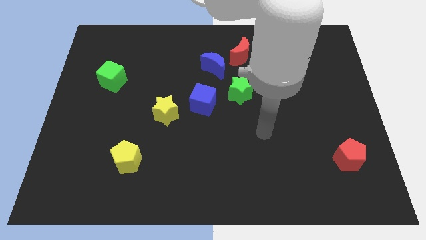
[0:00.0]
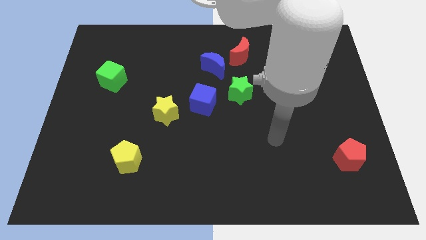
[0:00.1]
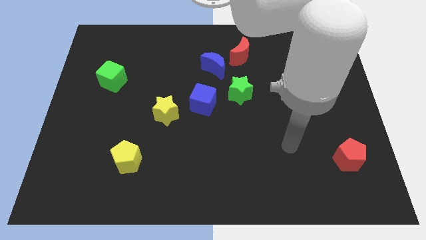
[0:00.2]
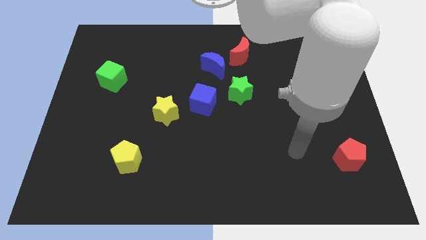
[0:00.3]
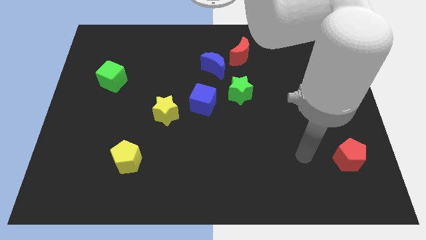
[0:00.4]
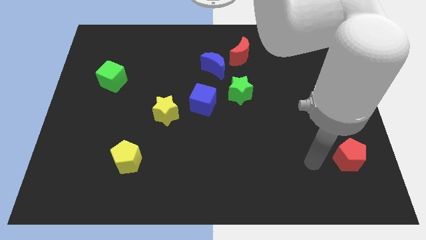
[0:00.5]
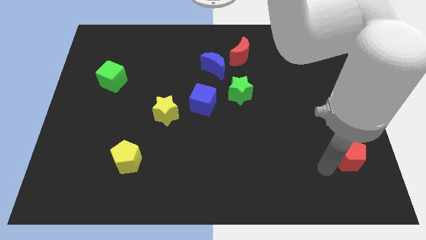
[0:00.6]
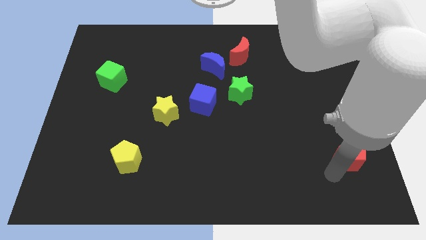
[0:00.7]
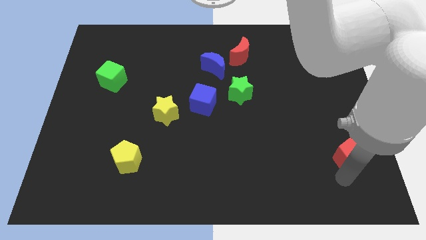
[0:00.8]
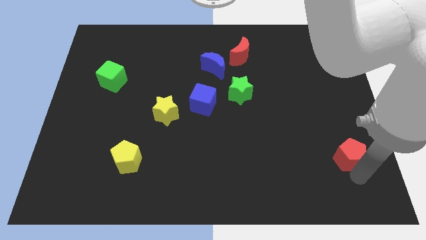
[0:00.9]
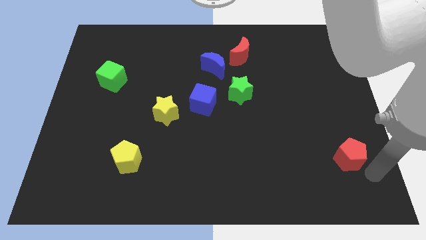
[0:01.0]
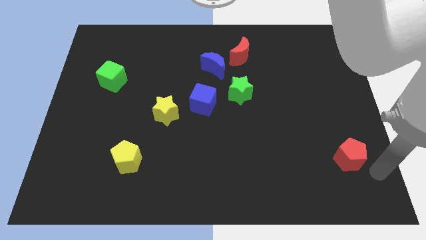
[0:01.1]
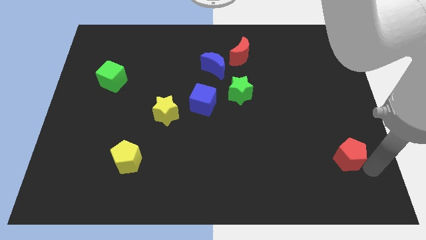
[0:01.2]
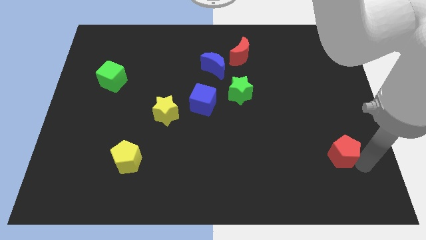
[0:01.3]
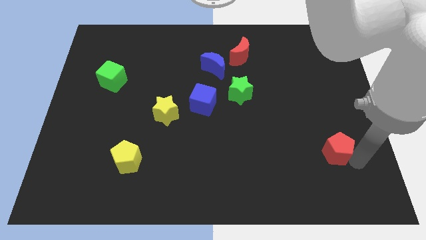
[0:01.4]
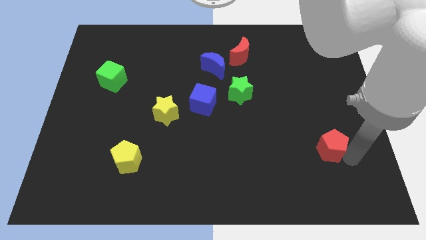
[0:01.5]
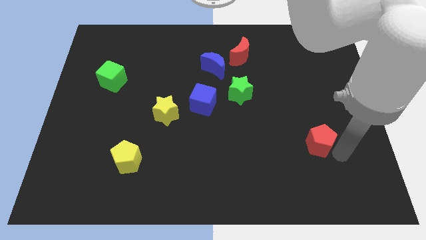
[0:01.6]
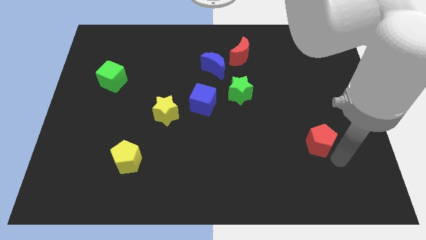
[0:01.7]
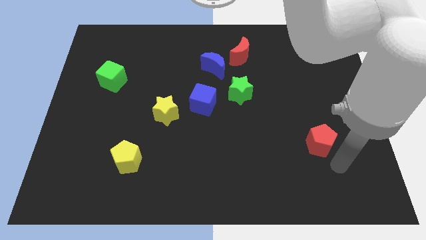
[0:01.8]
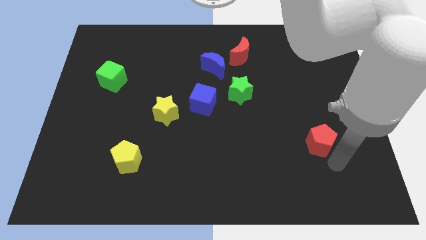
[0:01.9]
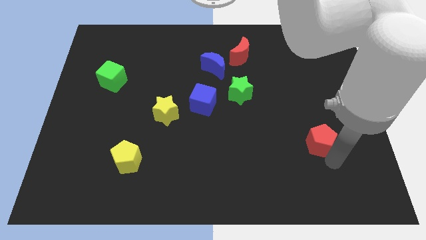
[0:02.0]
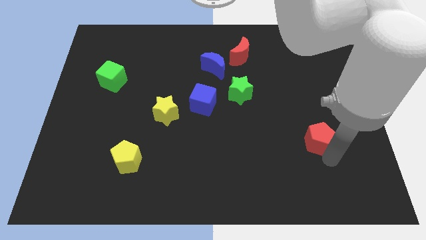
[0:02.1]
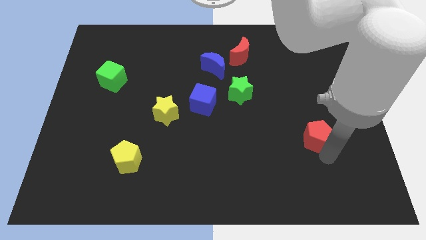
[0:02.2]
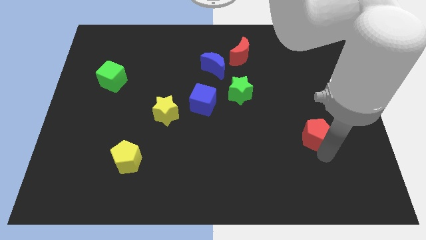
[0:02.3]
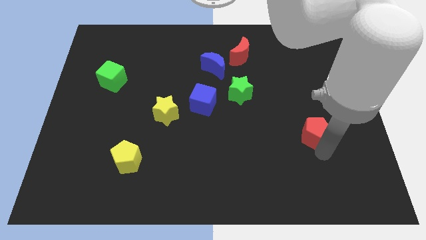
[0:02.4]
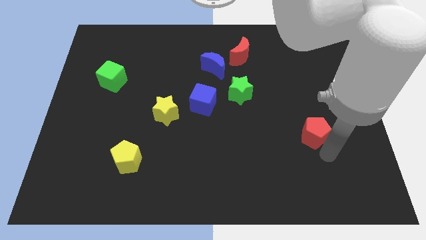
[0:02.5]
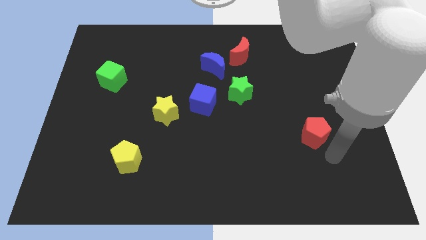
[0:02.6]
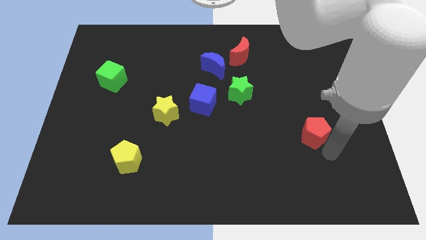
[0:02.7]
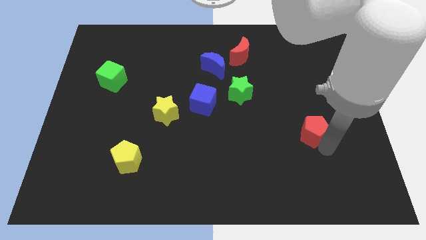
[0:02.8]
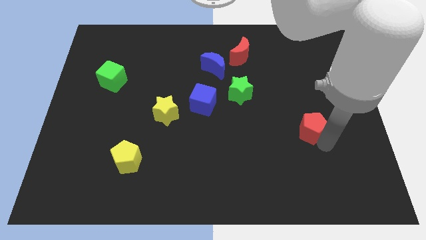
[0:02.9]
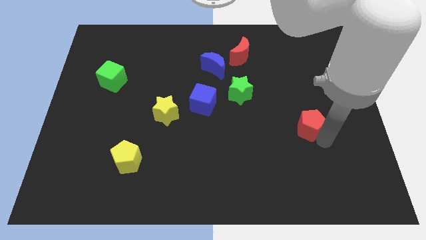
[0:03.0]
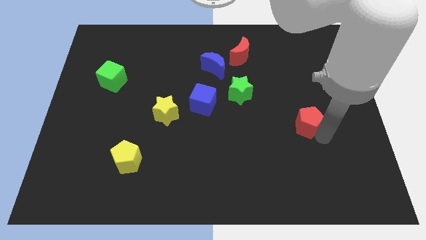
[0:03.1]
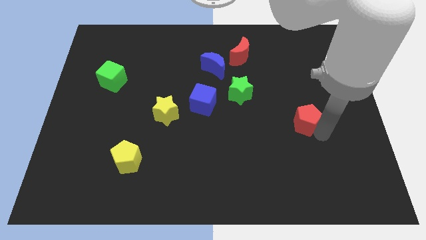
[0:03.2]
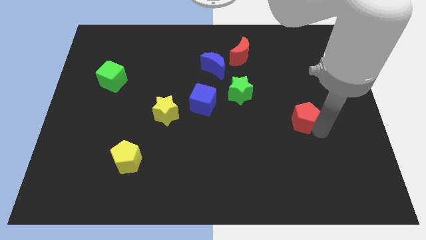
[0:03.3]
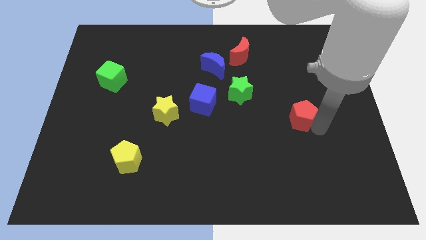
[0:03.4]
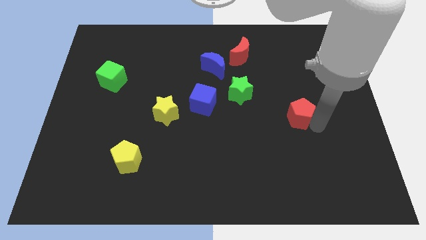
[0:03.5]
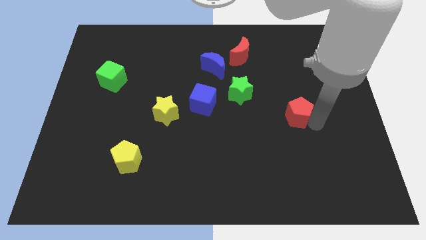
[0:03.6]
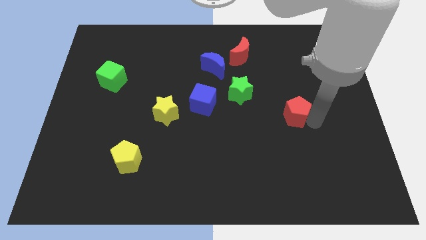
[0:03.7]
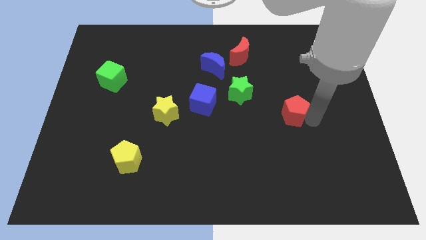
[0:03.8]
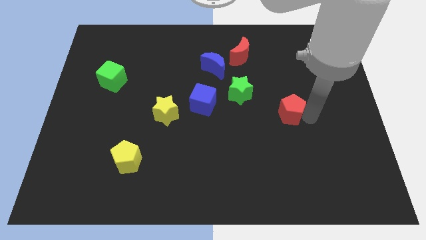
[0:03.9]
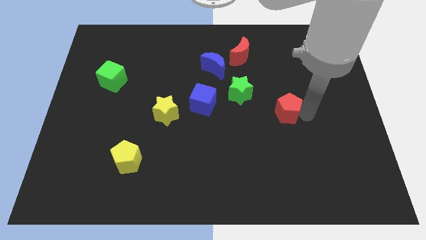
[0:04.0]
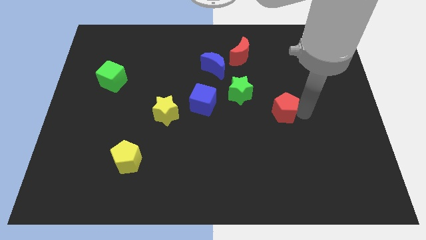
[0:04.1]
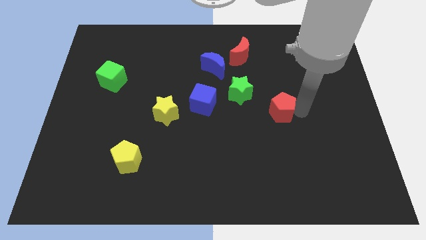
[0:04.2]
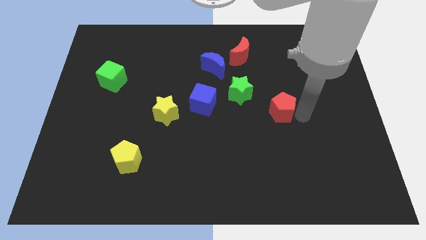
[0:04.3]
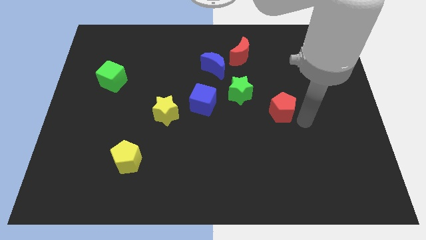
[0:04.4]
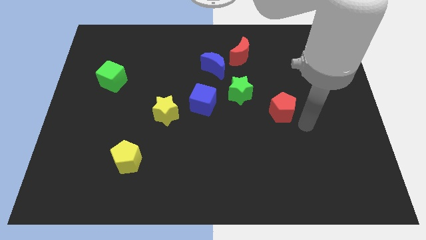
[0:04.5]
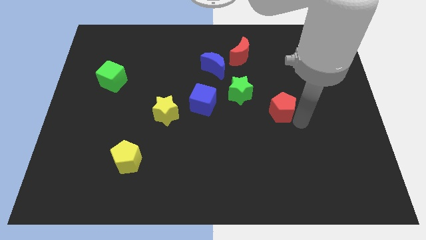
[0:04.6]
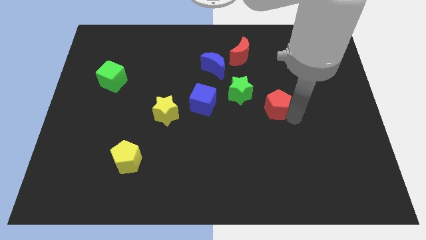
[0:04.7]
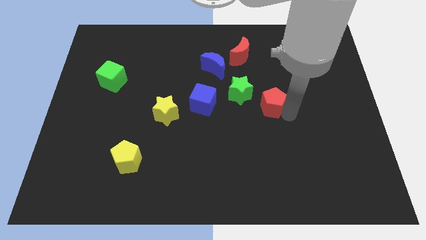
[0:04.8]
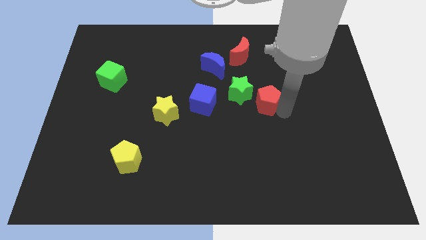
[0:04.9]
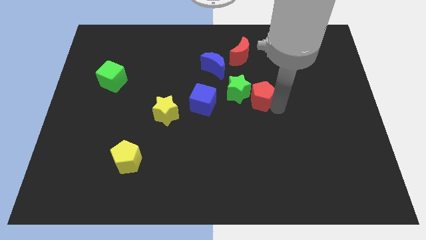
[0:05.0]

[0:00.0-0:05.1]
push the red pentagon close to the green star

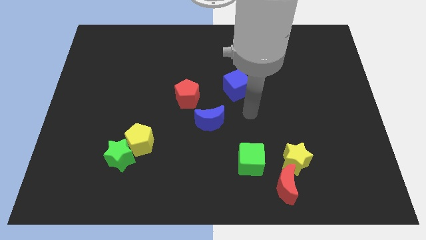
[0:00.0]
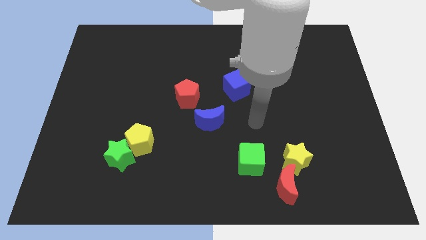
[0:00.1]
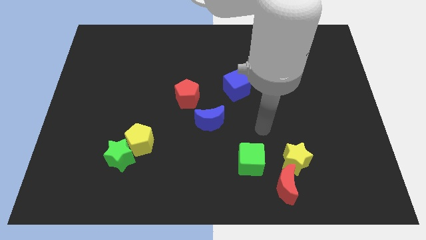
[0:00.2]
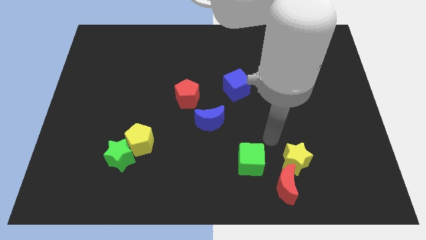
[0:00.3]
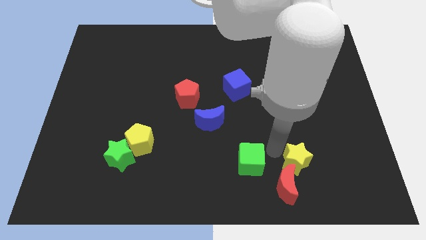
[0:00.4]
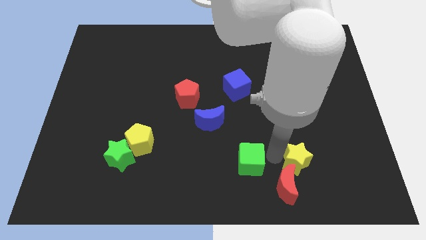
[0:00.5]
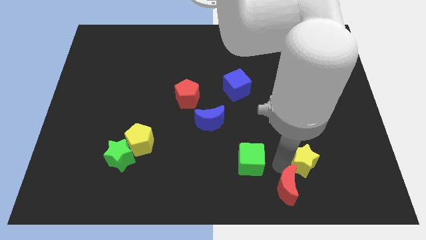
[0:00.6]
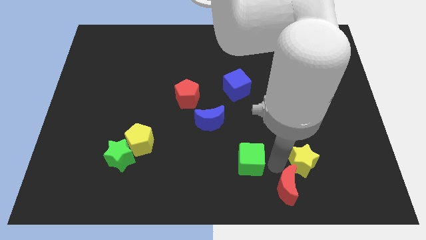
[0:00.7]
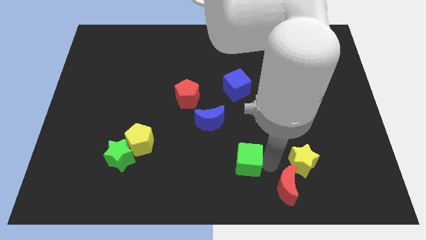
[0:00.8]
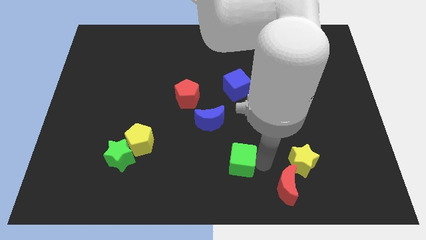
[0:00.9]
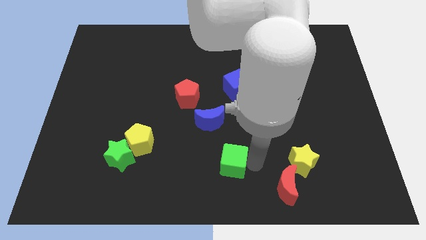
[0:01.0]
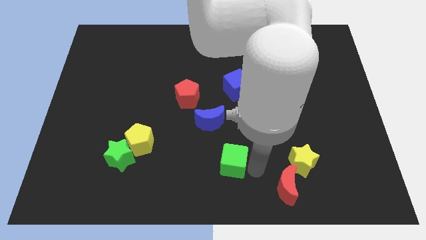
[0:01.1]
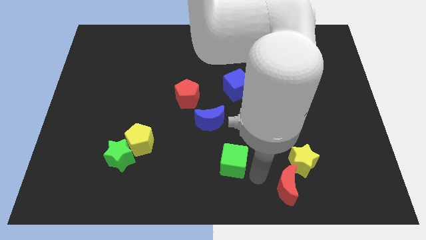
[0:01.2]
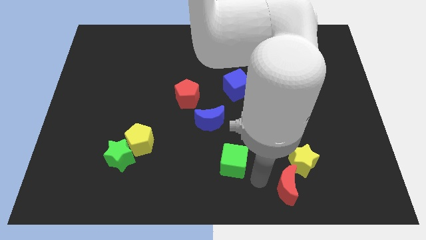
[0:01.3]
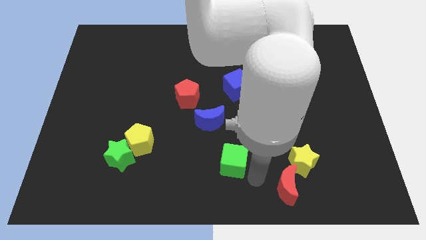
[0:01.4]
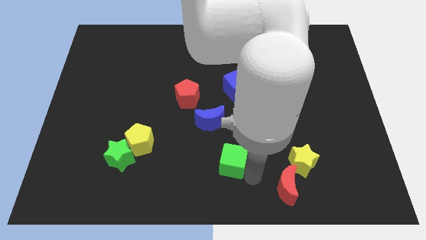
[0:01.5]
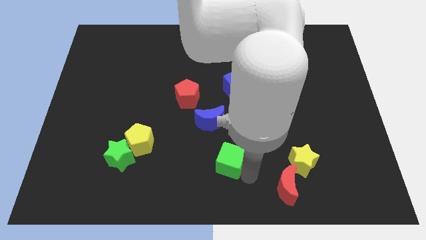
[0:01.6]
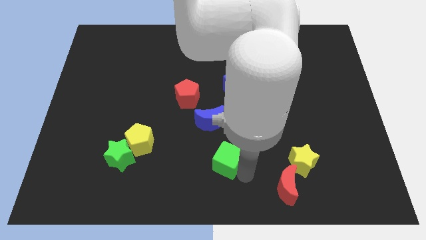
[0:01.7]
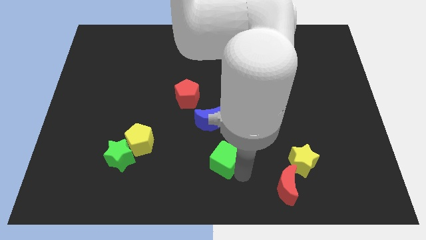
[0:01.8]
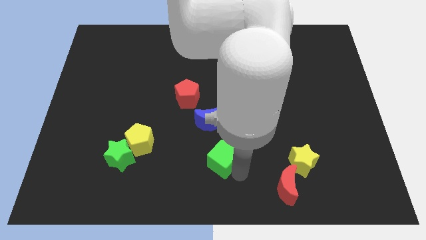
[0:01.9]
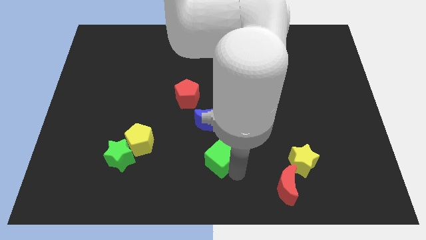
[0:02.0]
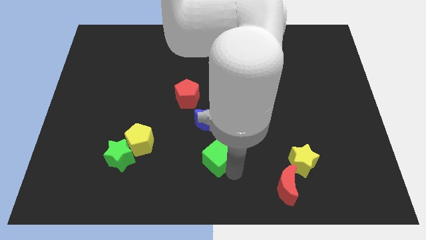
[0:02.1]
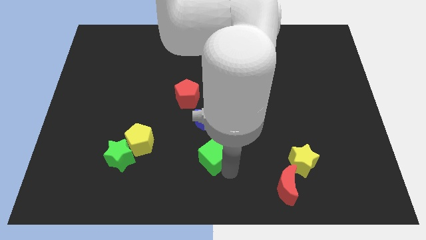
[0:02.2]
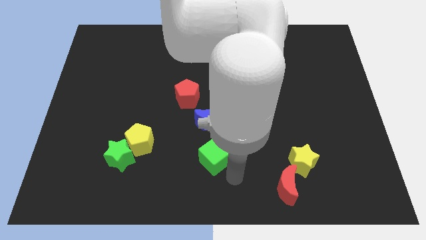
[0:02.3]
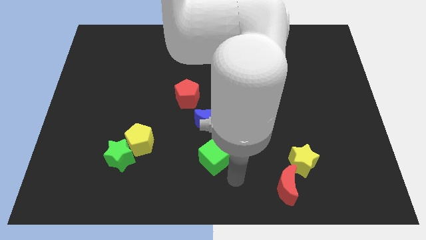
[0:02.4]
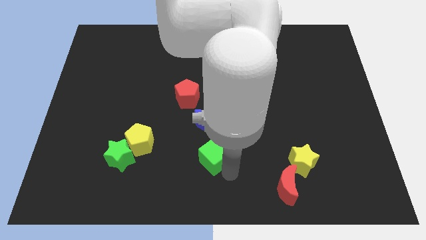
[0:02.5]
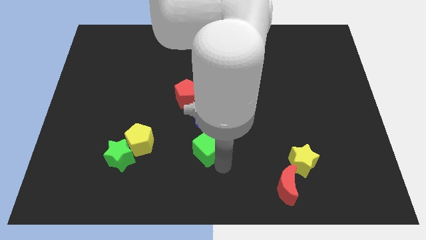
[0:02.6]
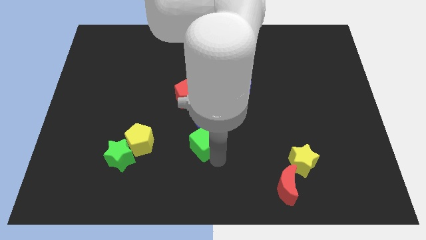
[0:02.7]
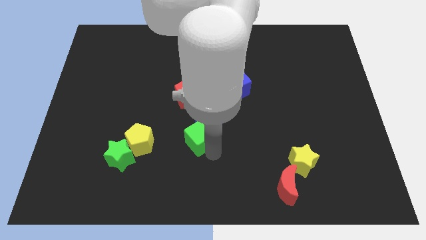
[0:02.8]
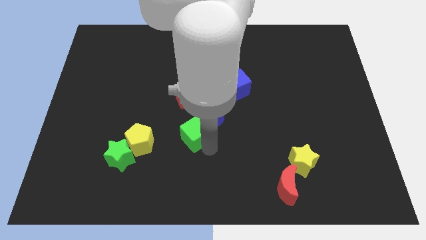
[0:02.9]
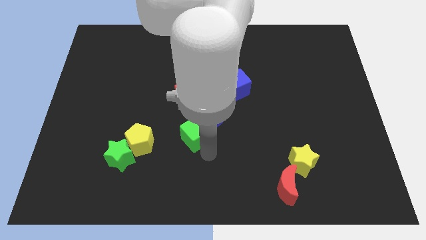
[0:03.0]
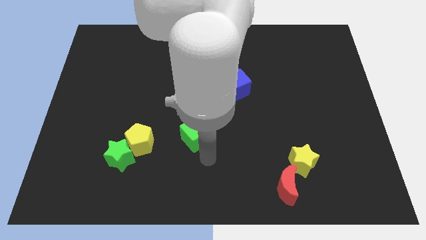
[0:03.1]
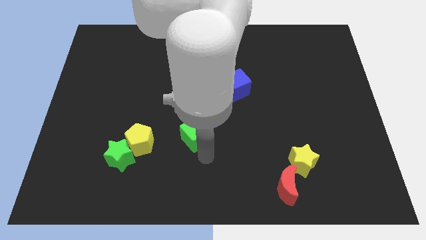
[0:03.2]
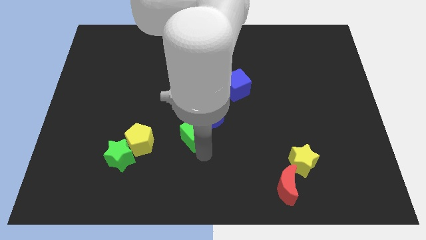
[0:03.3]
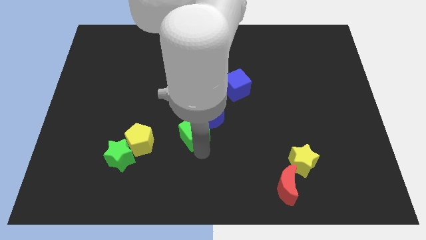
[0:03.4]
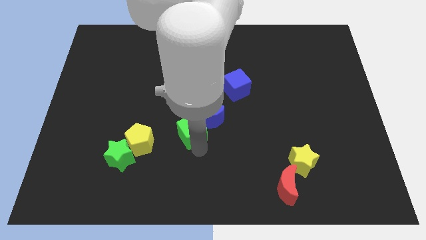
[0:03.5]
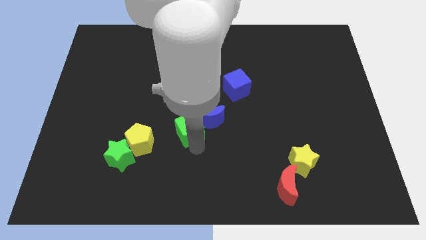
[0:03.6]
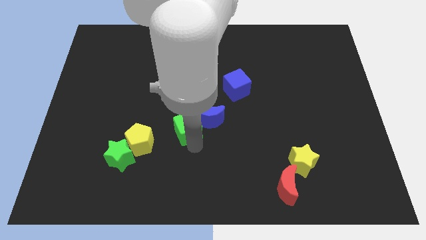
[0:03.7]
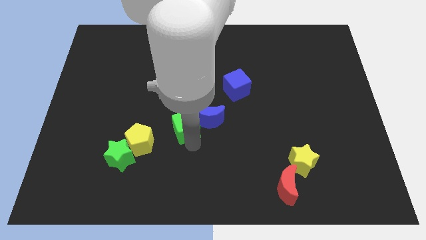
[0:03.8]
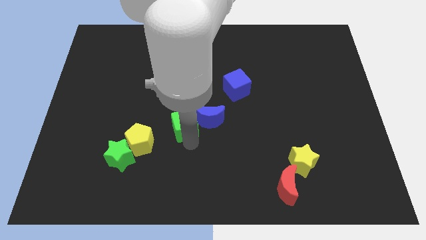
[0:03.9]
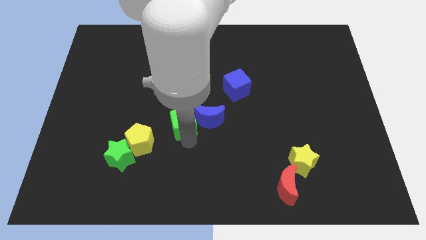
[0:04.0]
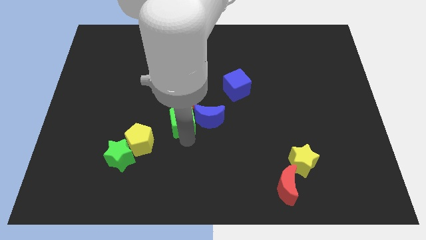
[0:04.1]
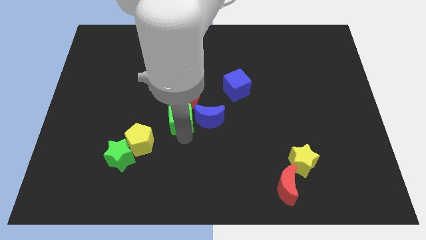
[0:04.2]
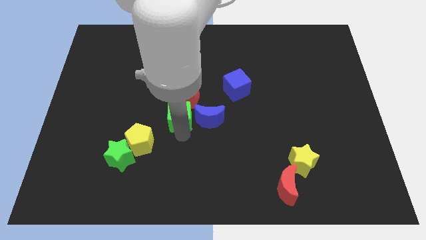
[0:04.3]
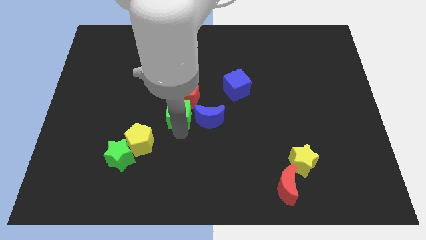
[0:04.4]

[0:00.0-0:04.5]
slide the green cube towards the red pentagon
